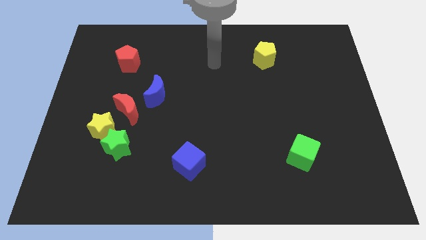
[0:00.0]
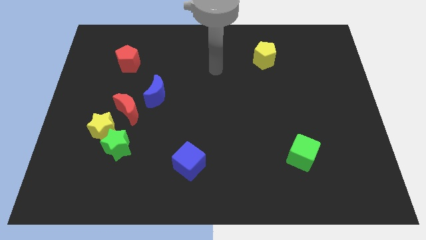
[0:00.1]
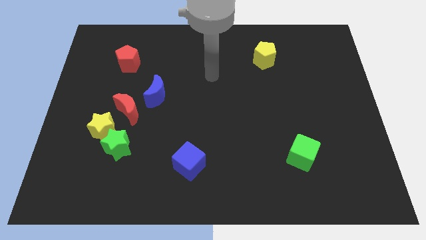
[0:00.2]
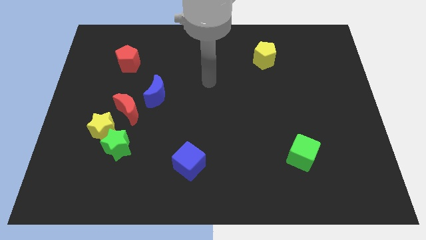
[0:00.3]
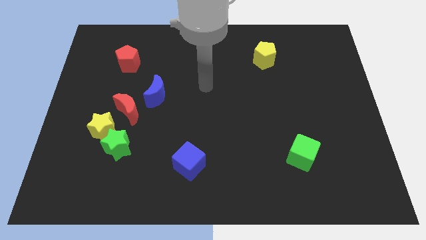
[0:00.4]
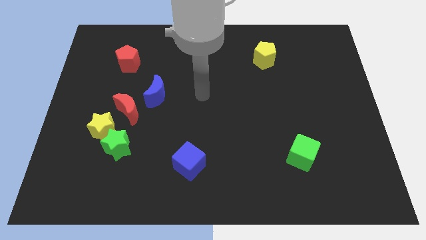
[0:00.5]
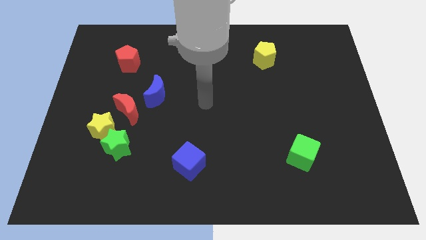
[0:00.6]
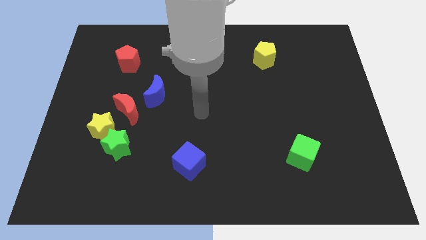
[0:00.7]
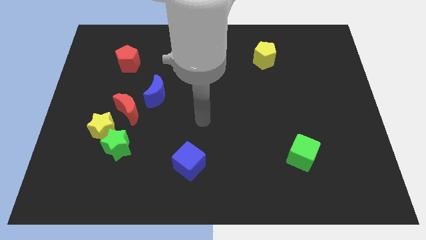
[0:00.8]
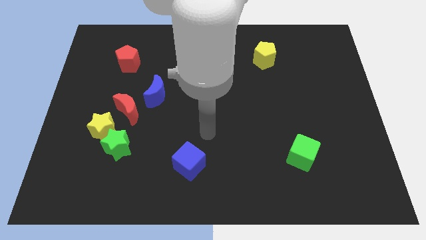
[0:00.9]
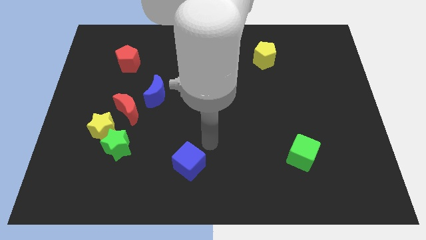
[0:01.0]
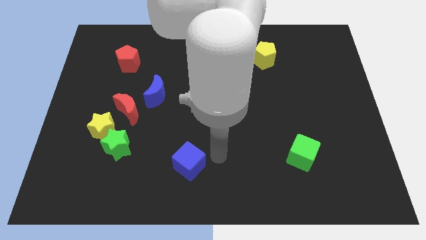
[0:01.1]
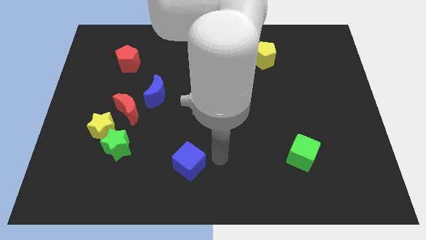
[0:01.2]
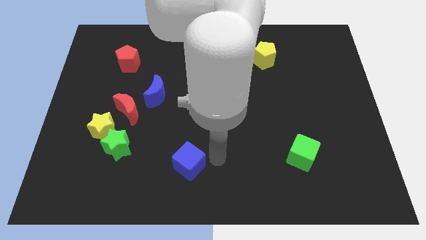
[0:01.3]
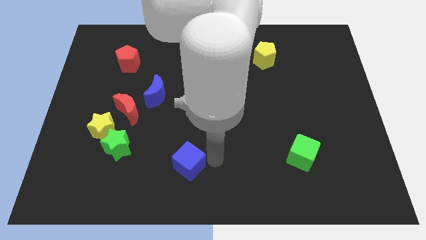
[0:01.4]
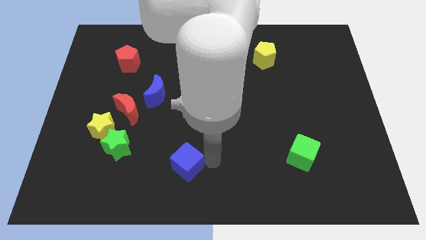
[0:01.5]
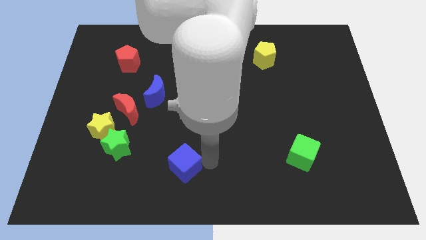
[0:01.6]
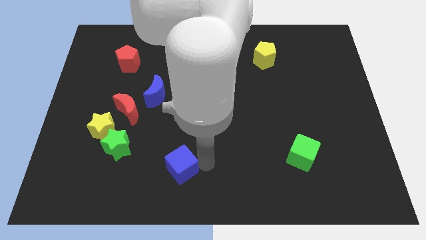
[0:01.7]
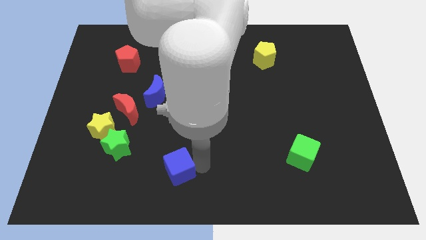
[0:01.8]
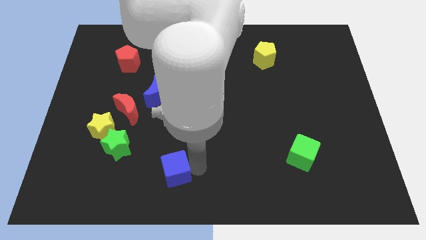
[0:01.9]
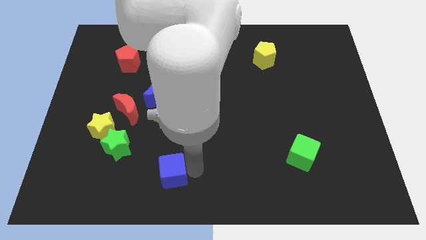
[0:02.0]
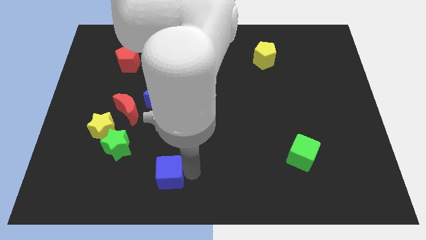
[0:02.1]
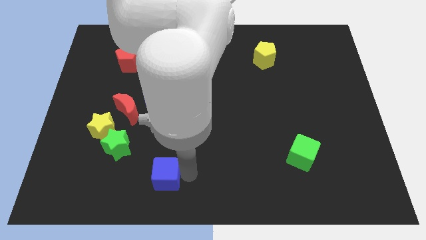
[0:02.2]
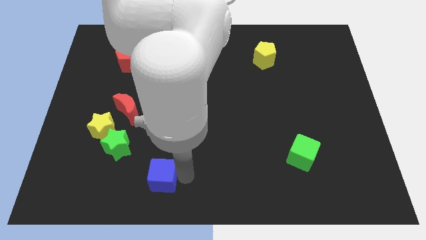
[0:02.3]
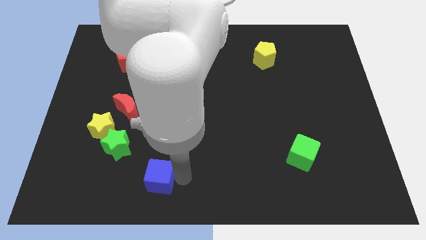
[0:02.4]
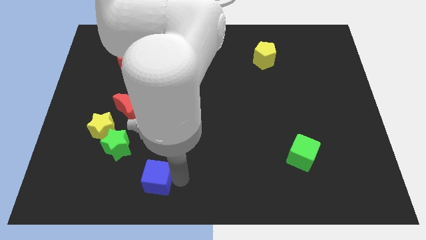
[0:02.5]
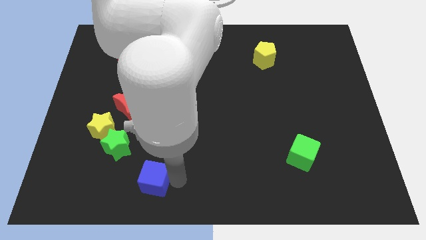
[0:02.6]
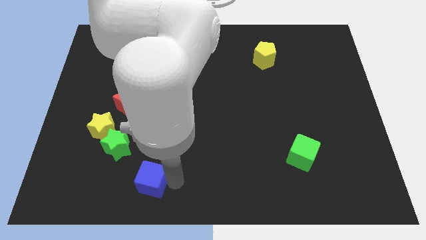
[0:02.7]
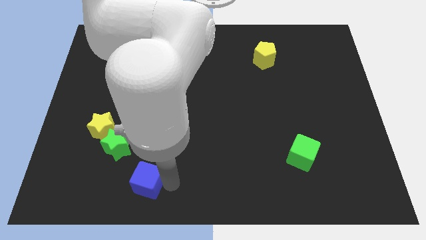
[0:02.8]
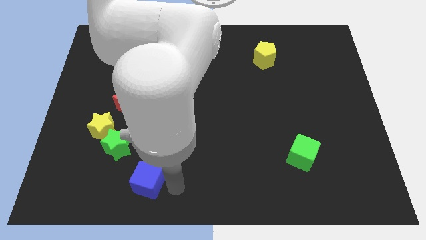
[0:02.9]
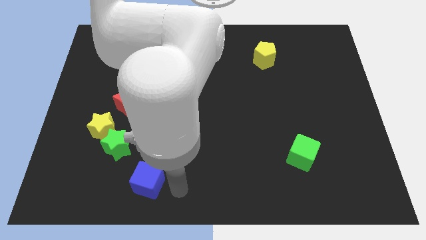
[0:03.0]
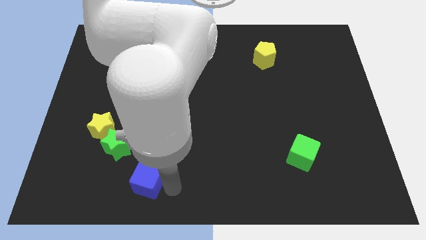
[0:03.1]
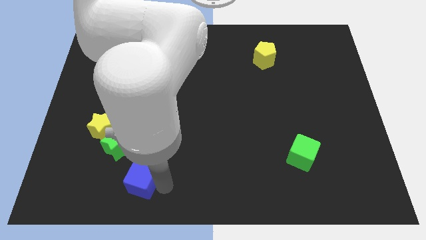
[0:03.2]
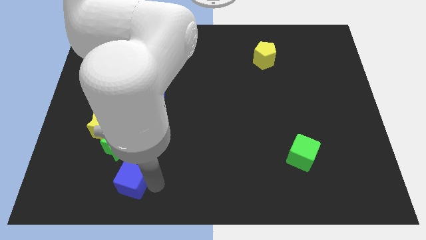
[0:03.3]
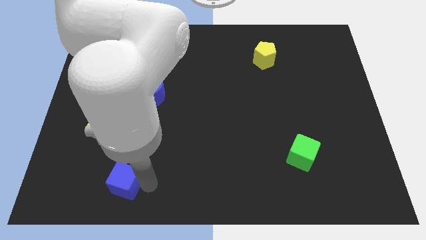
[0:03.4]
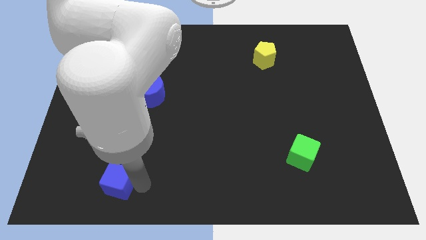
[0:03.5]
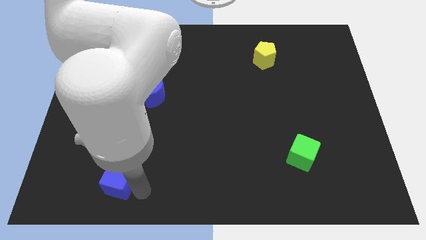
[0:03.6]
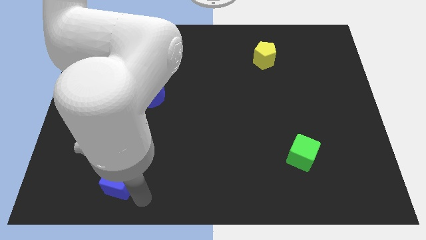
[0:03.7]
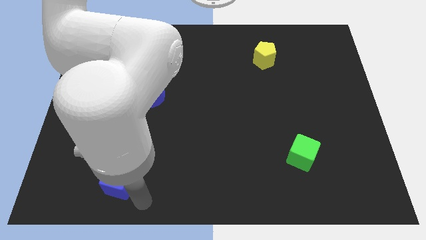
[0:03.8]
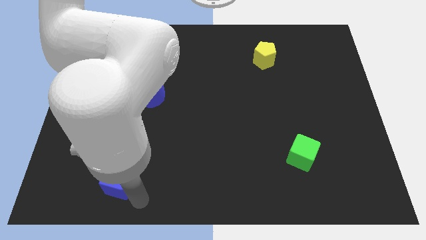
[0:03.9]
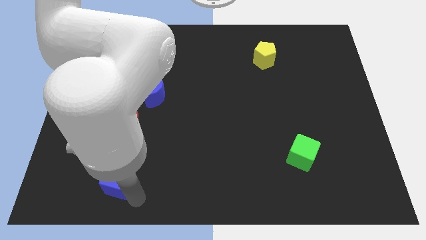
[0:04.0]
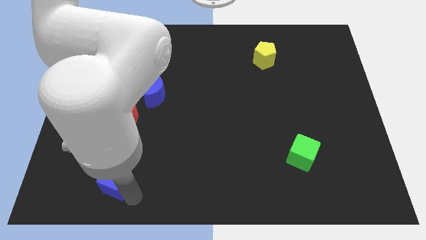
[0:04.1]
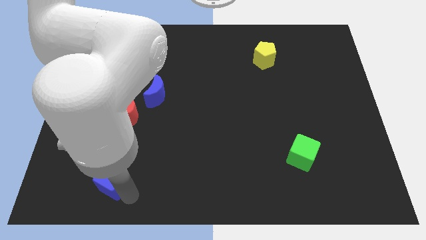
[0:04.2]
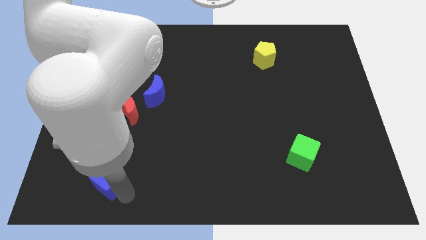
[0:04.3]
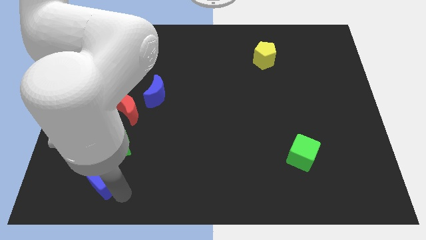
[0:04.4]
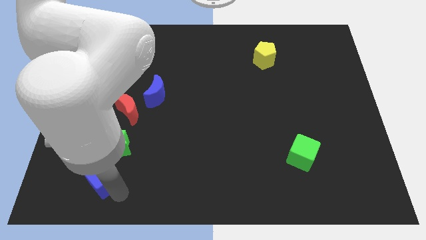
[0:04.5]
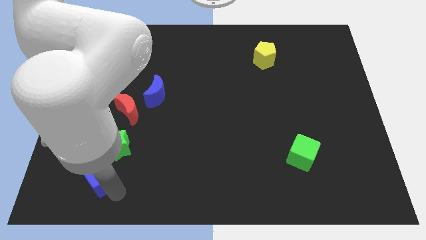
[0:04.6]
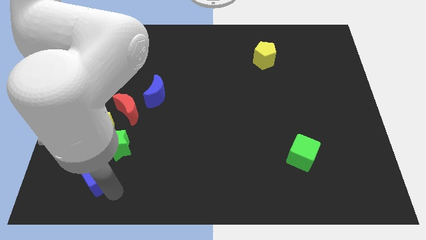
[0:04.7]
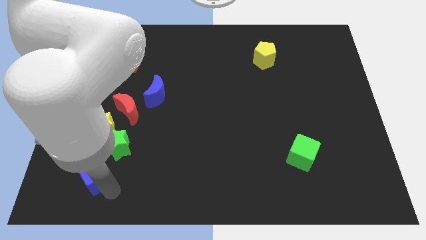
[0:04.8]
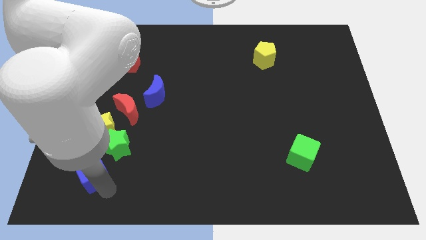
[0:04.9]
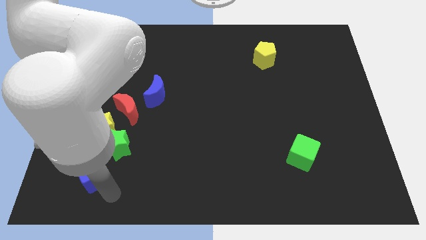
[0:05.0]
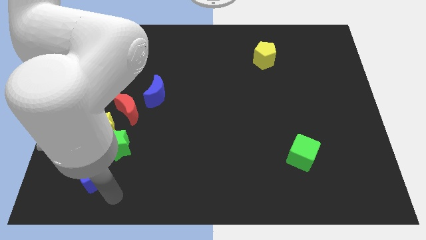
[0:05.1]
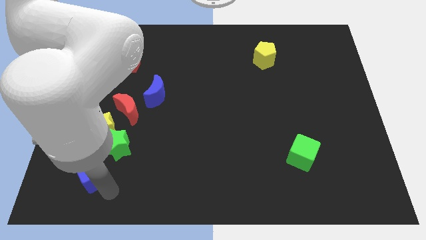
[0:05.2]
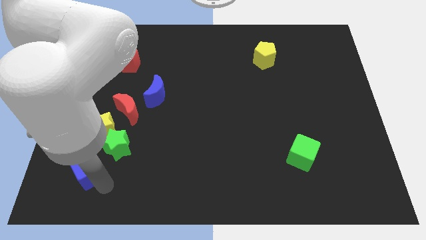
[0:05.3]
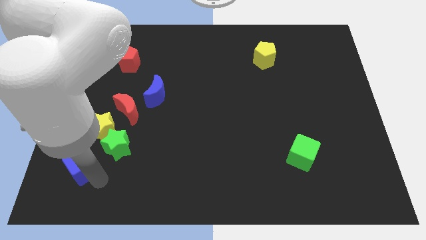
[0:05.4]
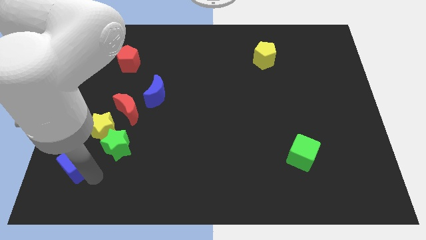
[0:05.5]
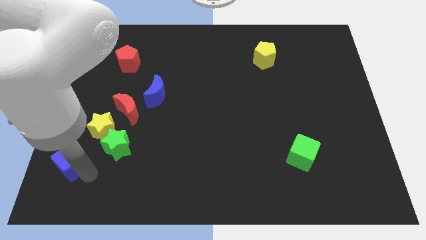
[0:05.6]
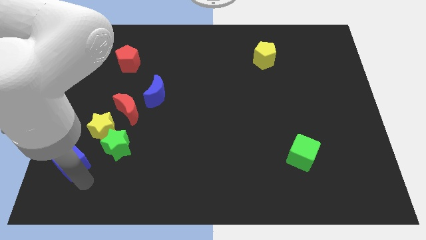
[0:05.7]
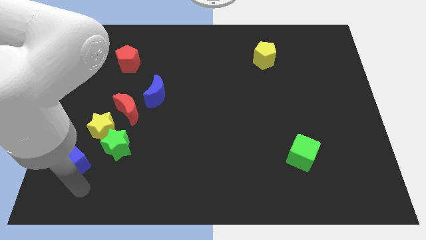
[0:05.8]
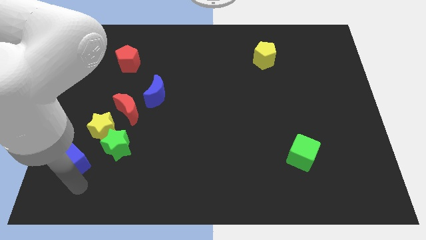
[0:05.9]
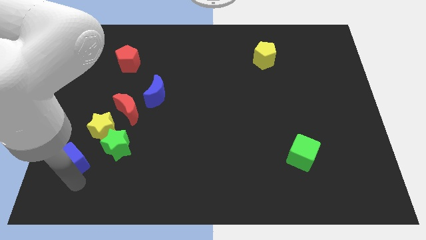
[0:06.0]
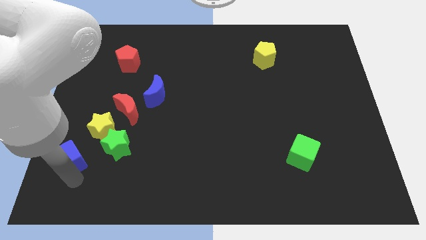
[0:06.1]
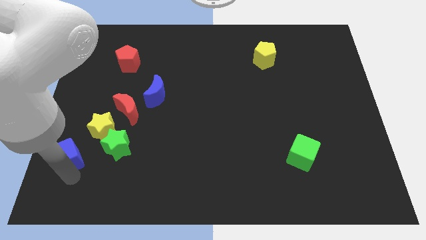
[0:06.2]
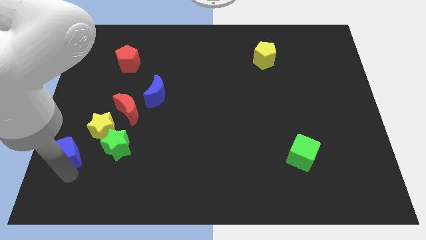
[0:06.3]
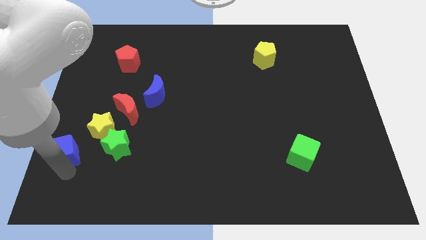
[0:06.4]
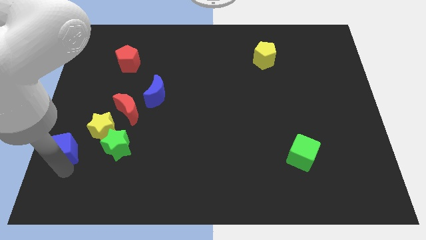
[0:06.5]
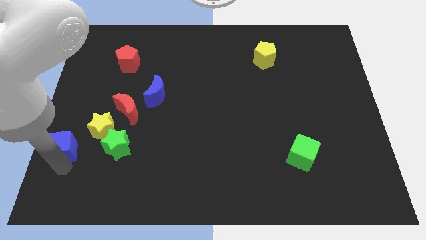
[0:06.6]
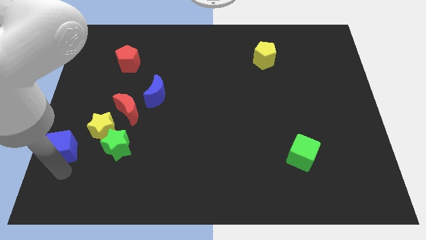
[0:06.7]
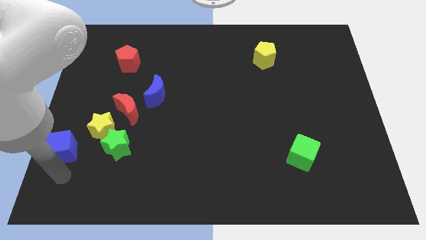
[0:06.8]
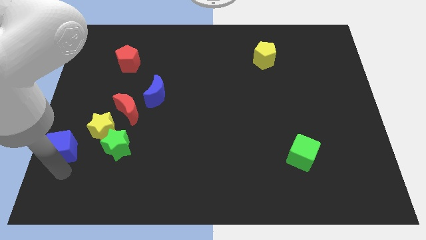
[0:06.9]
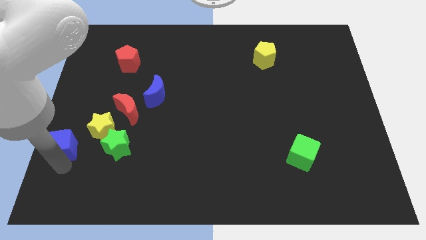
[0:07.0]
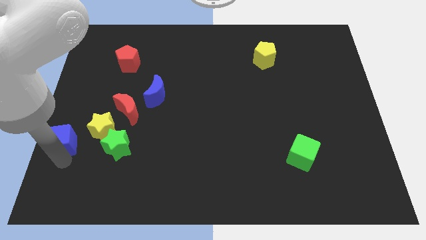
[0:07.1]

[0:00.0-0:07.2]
put the blue cube to the left side of the board
